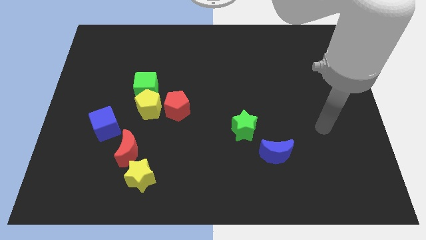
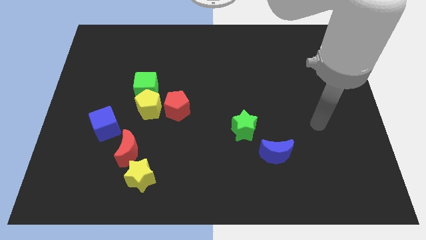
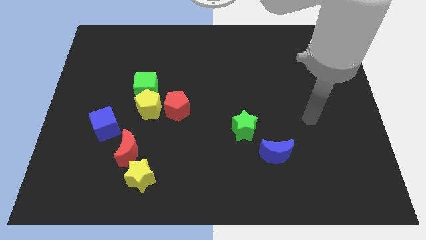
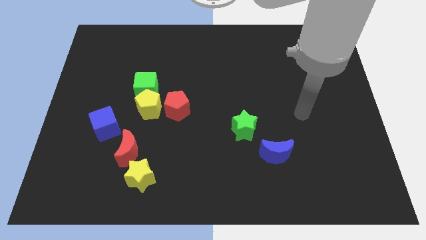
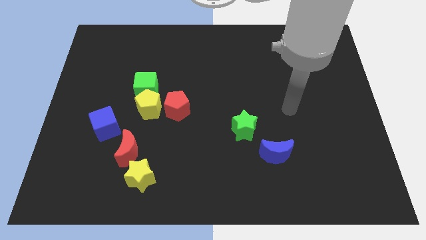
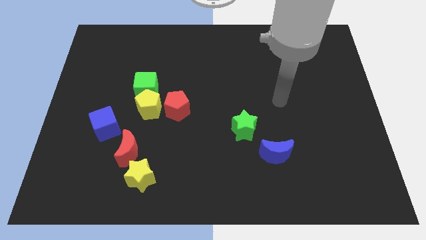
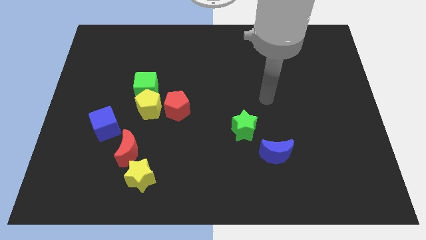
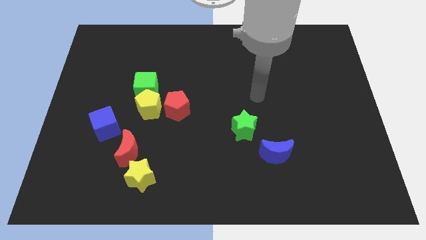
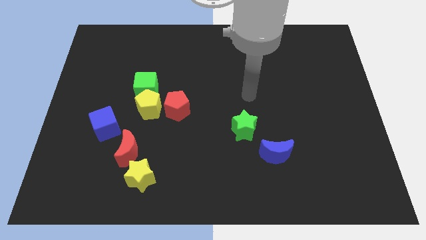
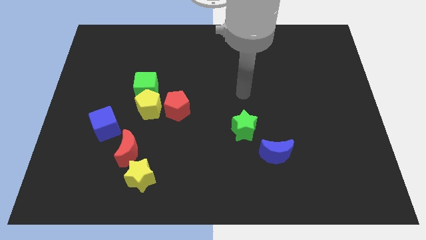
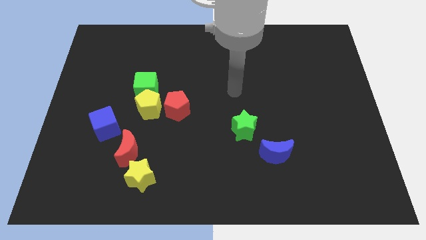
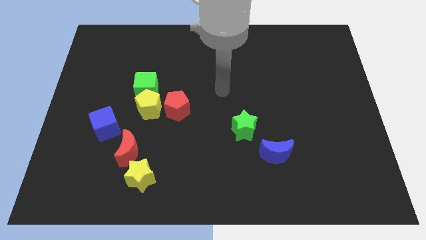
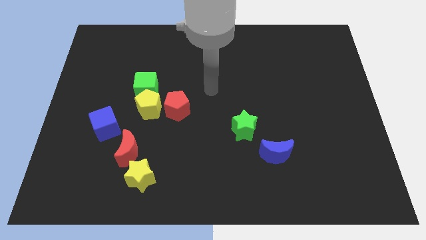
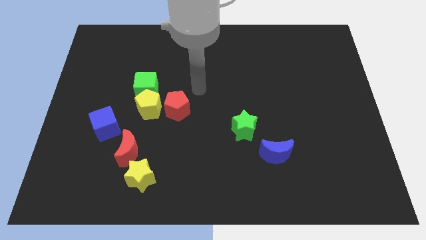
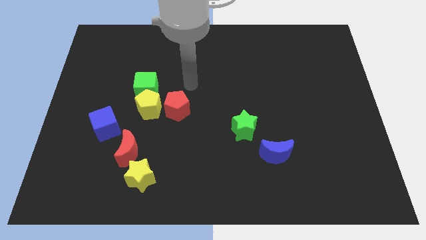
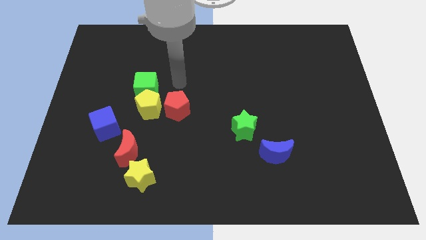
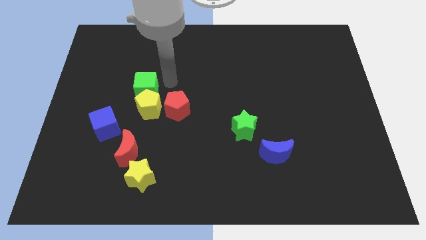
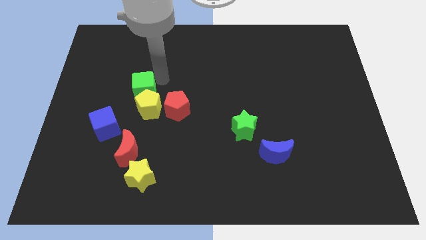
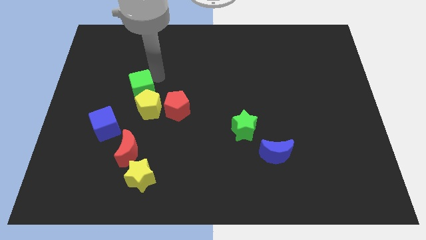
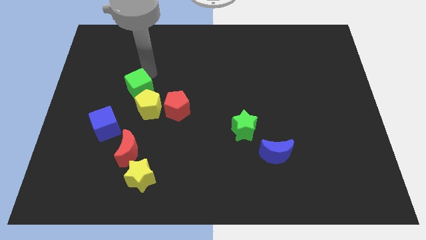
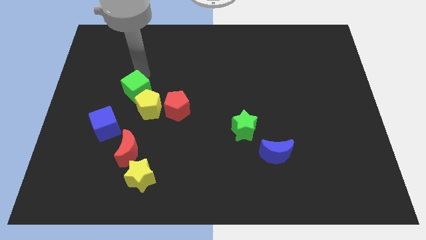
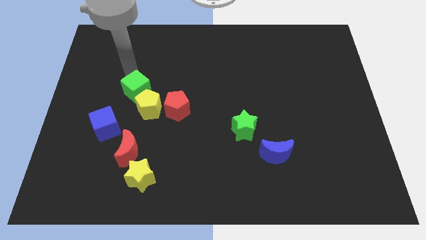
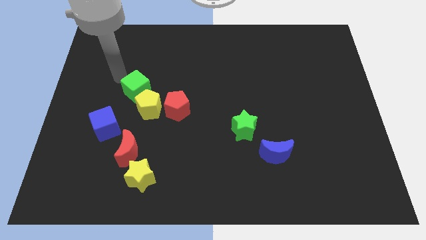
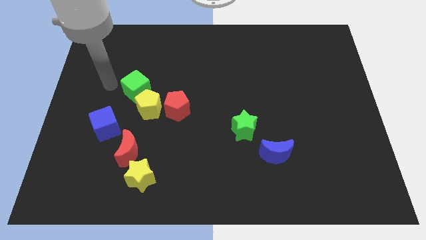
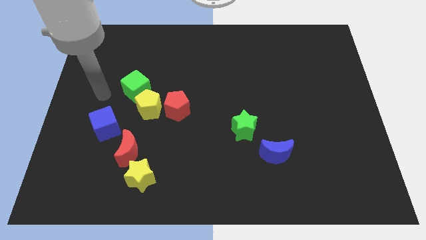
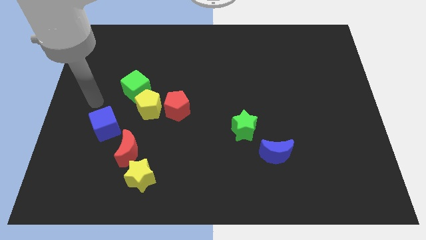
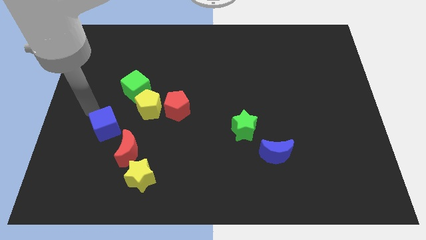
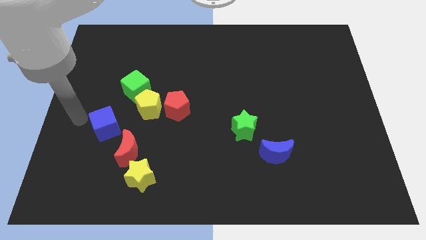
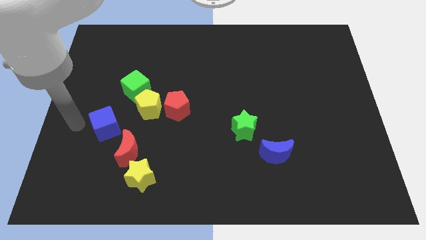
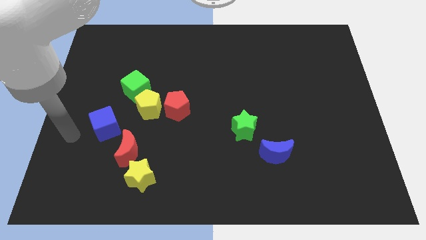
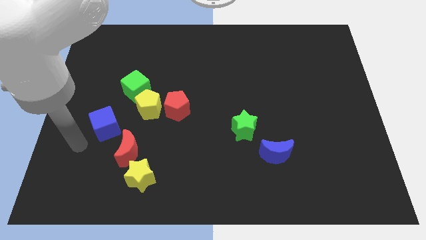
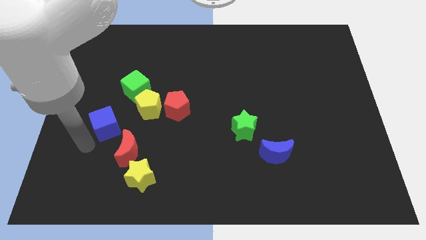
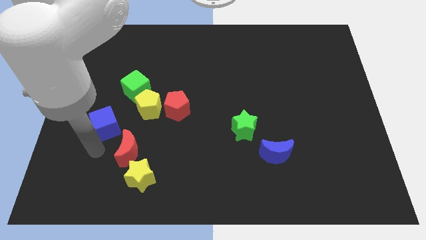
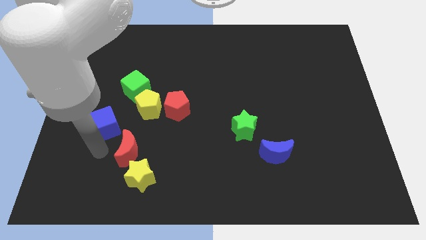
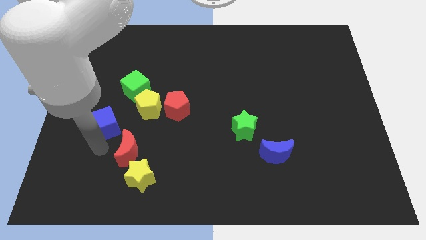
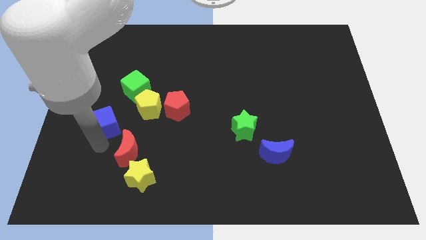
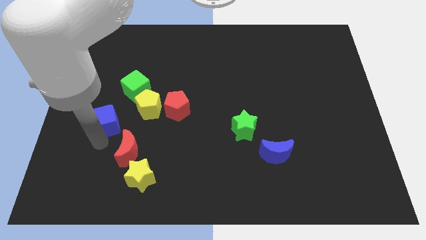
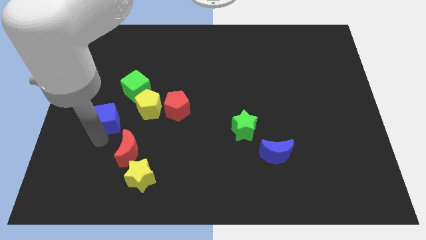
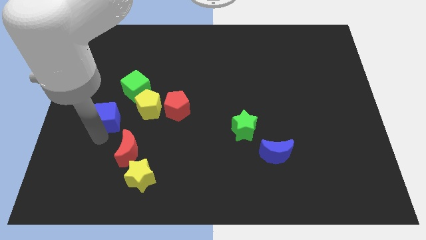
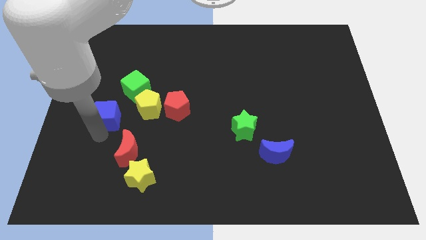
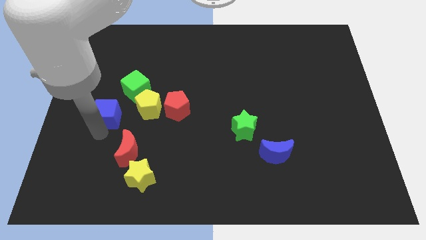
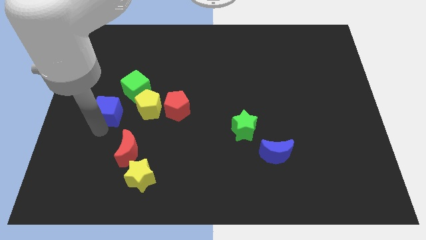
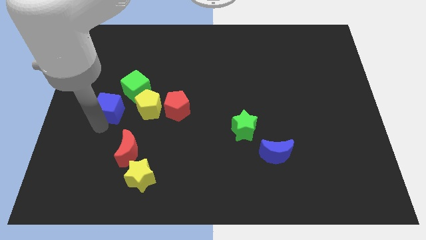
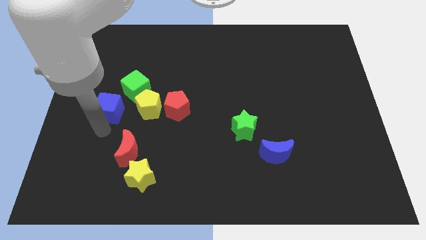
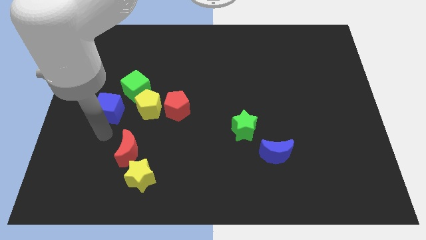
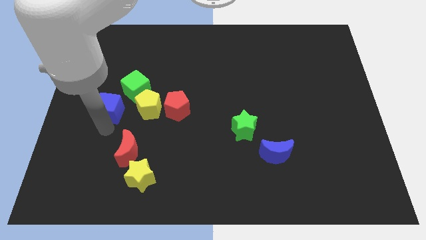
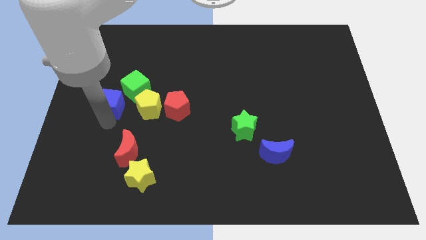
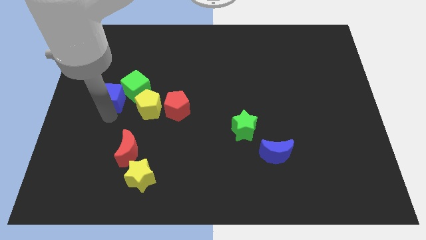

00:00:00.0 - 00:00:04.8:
push the blue cube upwards a bit

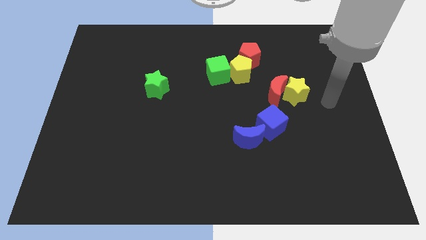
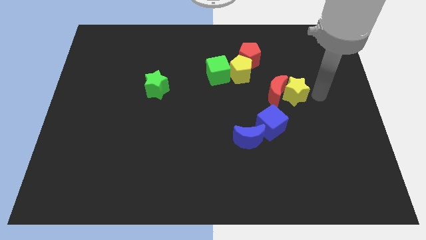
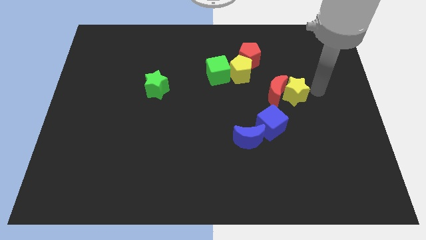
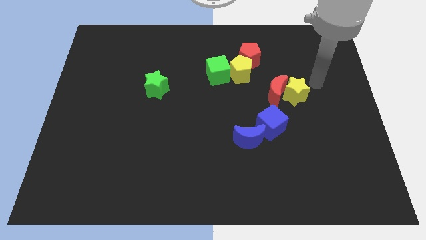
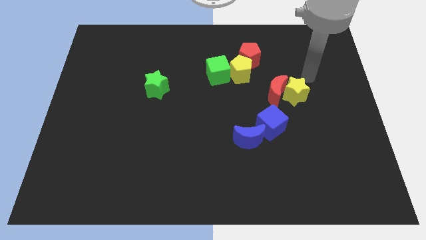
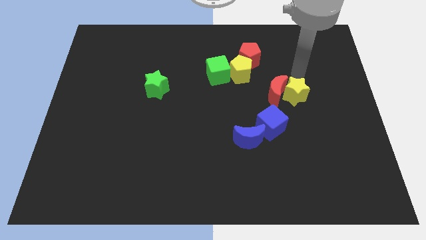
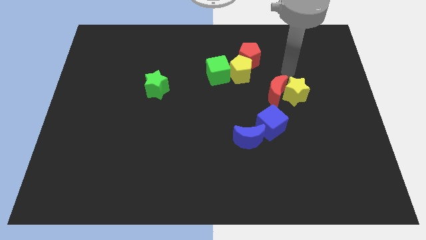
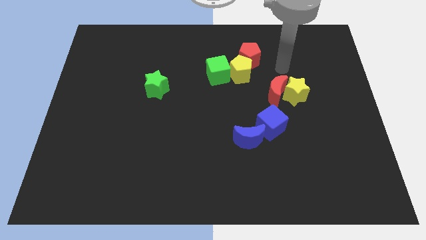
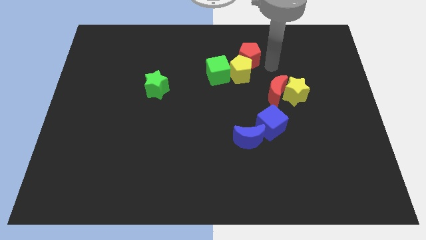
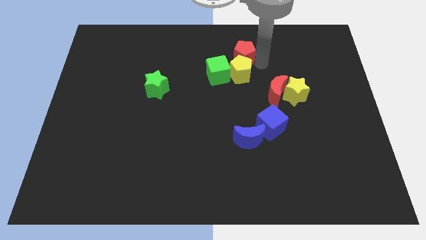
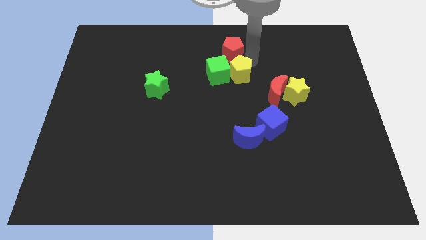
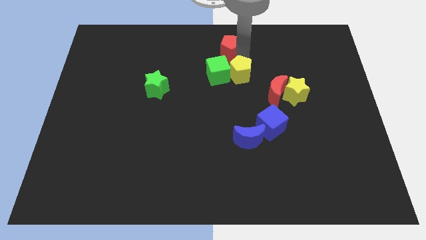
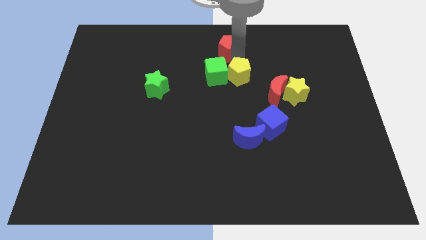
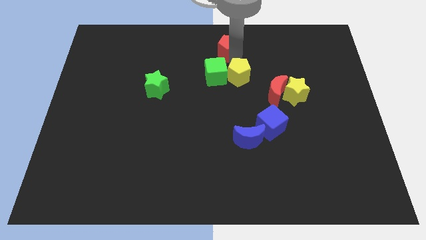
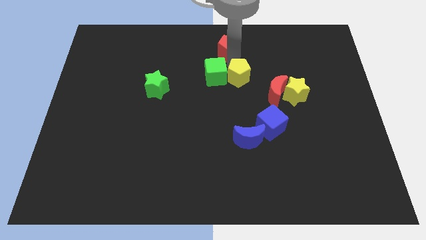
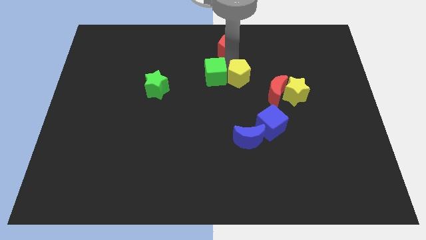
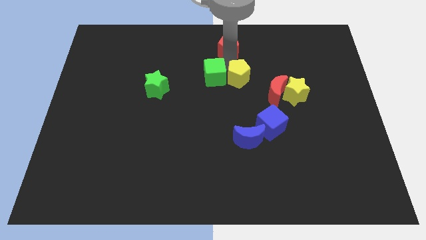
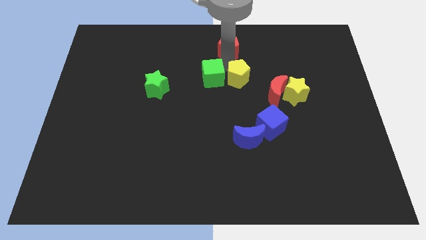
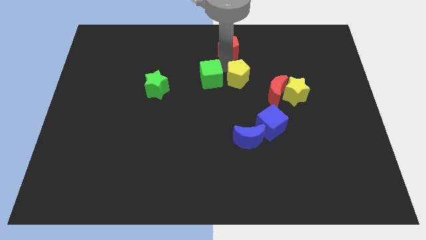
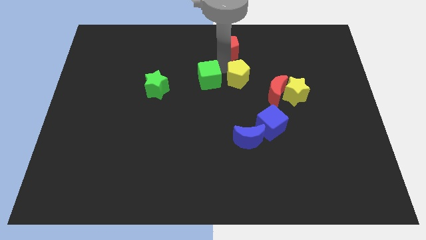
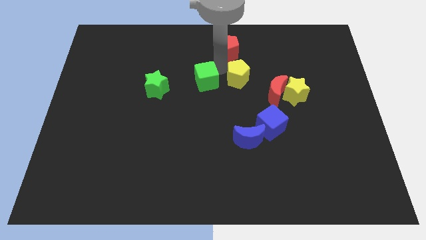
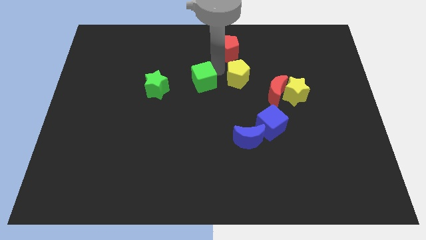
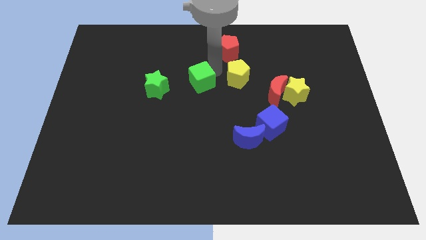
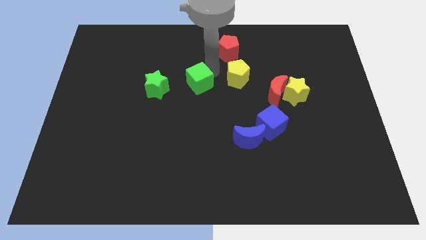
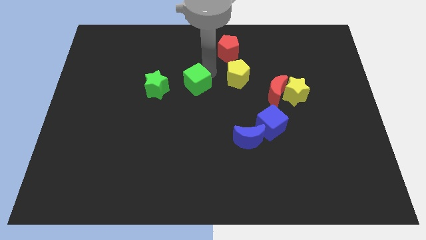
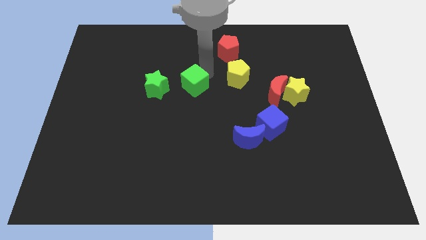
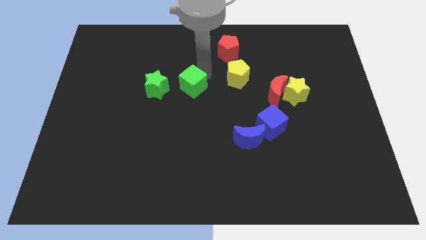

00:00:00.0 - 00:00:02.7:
slightly move the green cube diagonally down and left

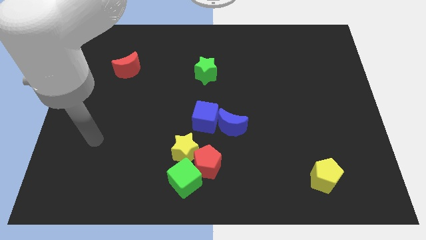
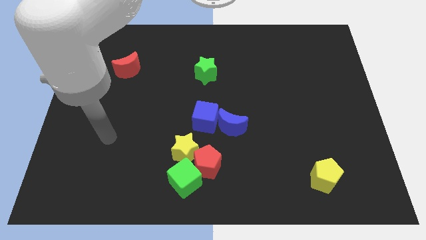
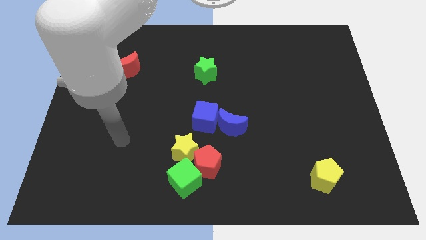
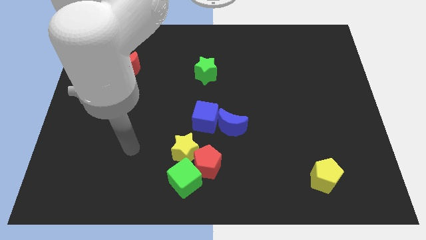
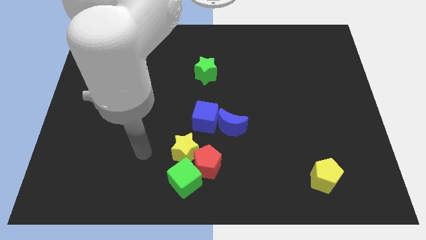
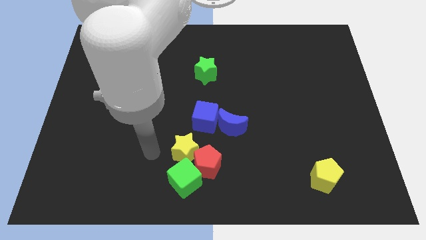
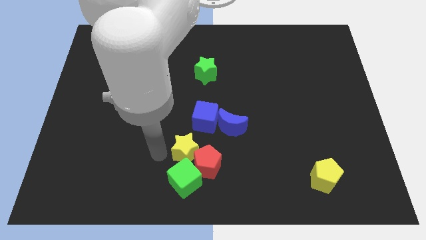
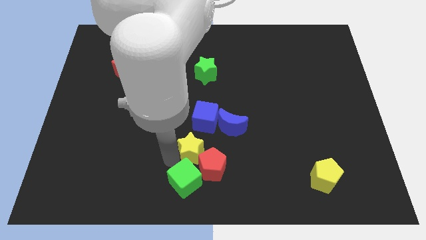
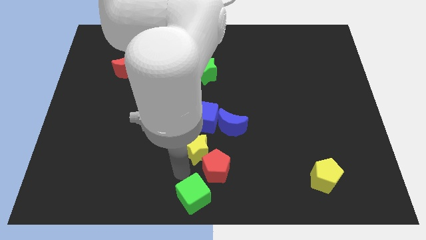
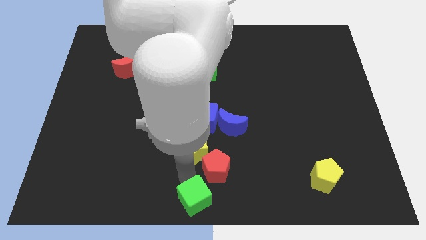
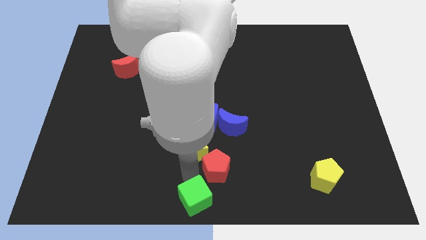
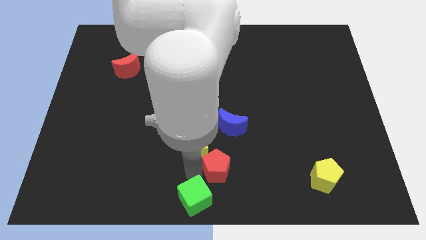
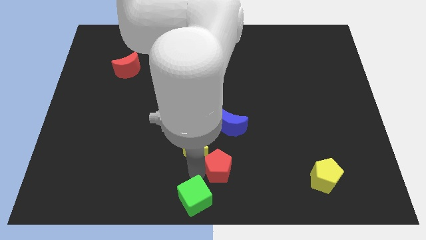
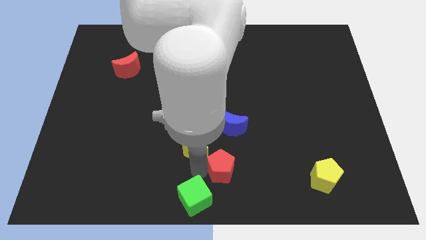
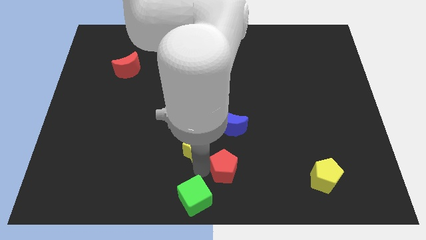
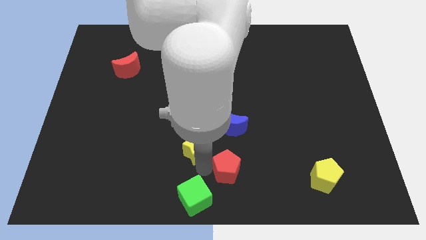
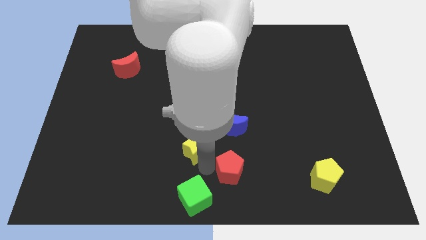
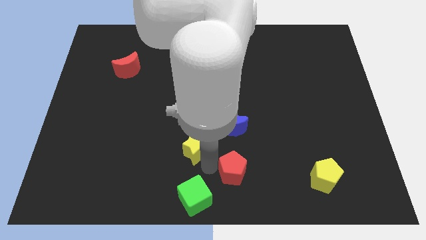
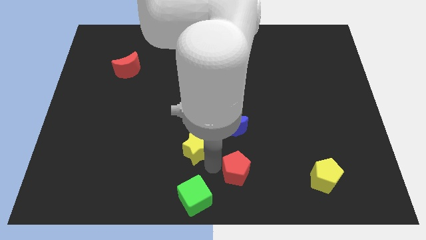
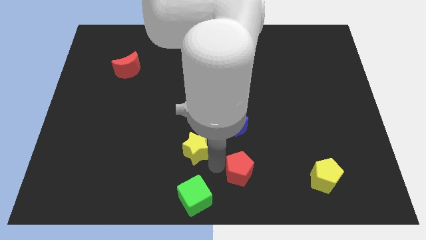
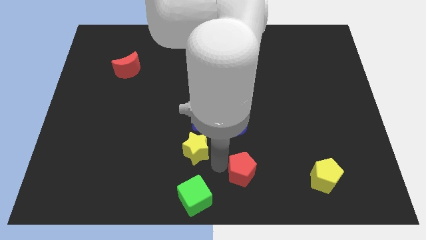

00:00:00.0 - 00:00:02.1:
slide the red pentagon somewhat to the right
